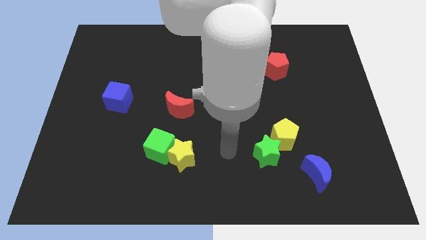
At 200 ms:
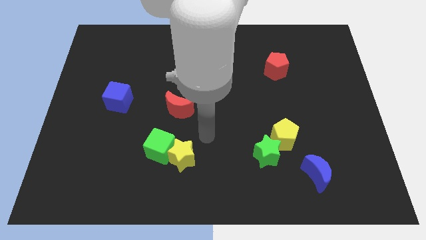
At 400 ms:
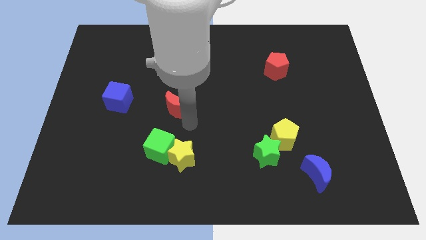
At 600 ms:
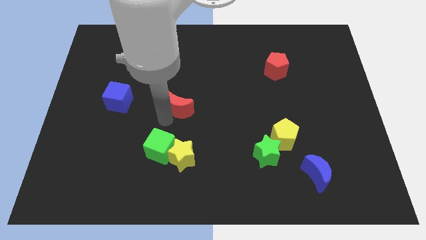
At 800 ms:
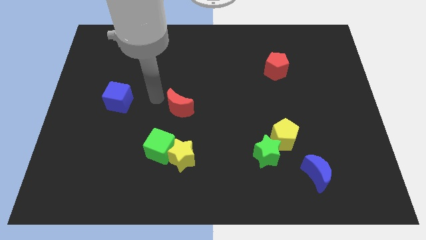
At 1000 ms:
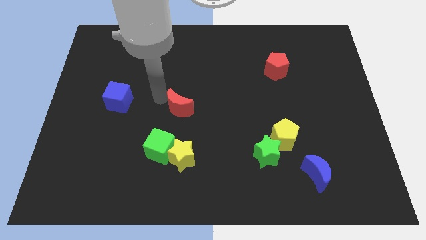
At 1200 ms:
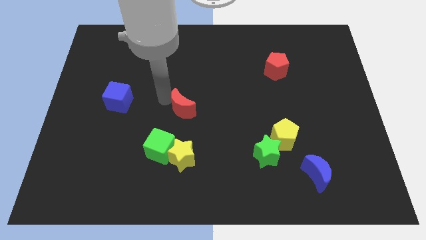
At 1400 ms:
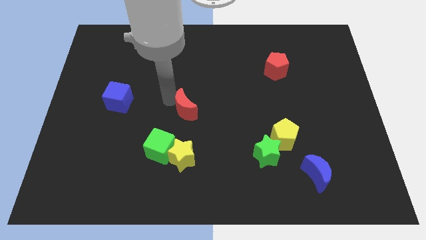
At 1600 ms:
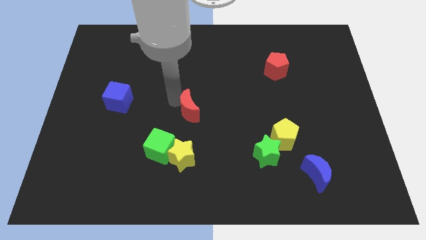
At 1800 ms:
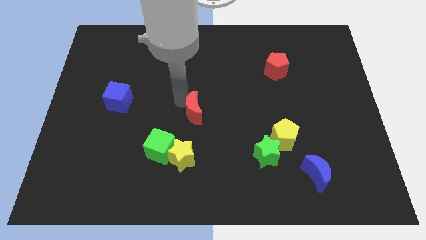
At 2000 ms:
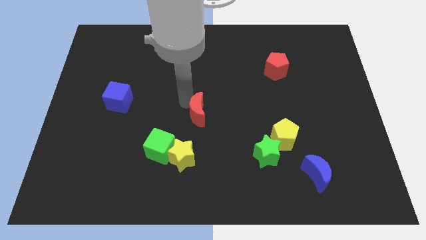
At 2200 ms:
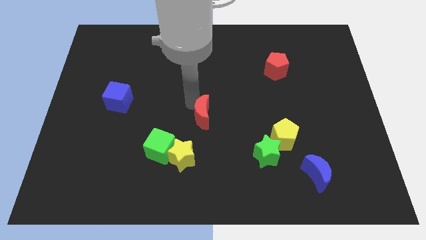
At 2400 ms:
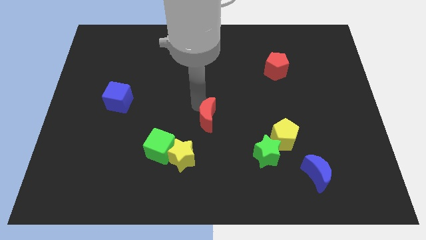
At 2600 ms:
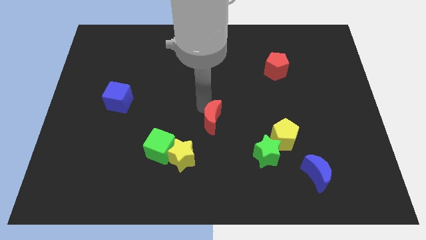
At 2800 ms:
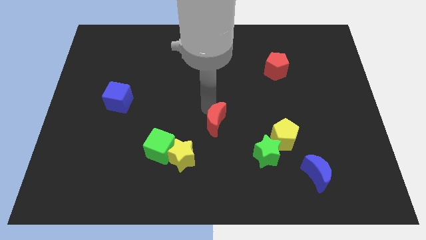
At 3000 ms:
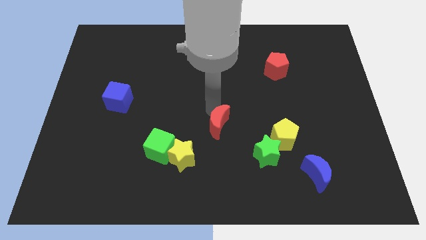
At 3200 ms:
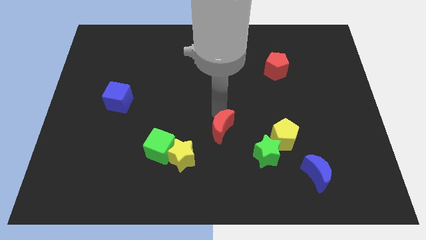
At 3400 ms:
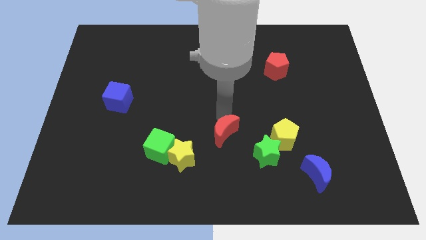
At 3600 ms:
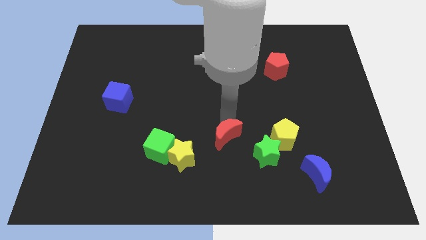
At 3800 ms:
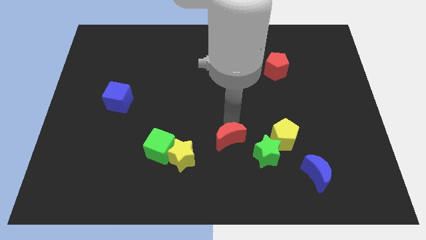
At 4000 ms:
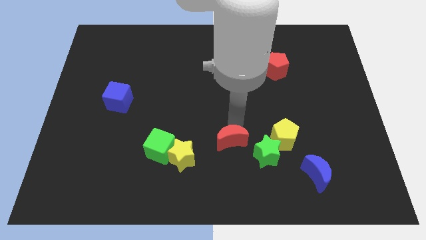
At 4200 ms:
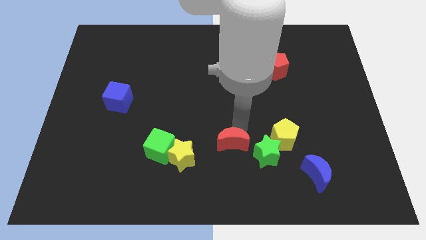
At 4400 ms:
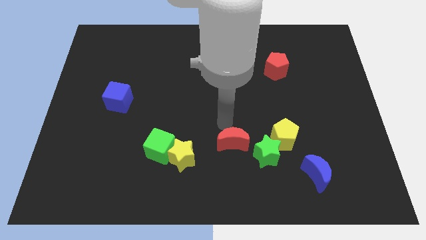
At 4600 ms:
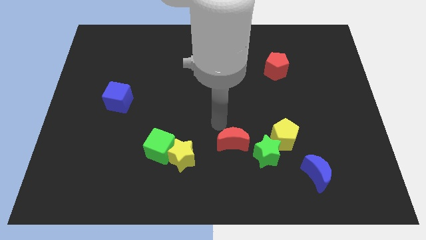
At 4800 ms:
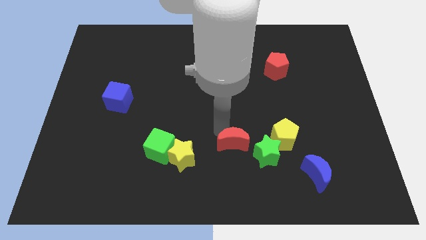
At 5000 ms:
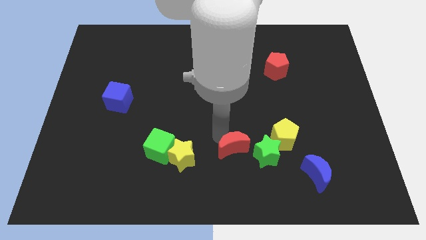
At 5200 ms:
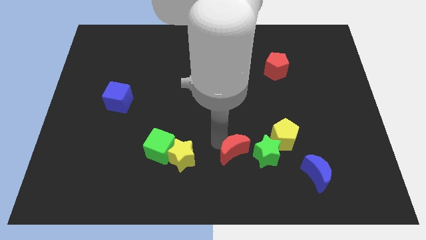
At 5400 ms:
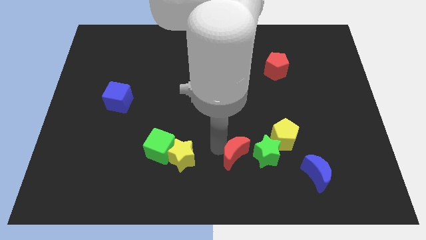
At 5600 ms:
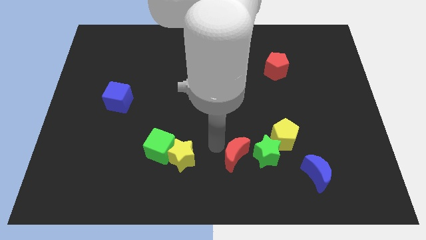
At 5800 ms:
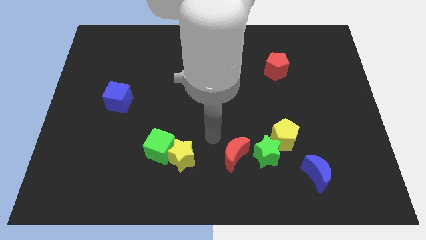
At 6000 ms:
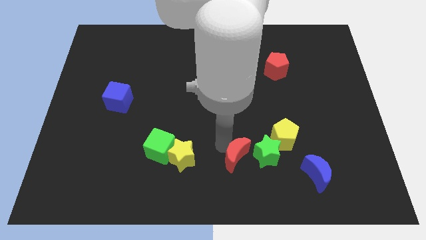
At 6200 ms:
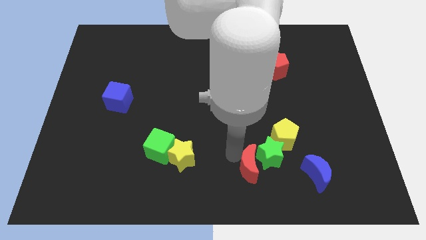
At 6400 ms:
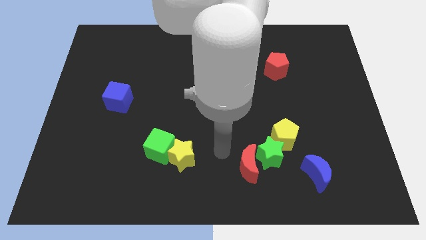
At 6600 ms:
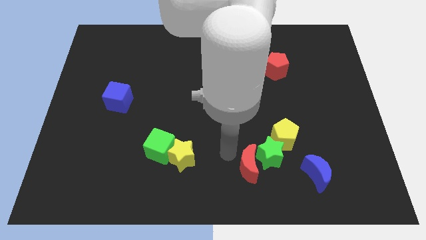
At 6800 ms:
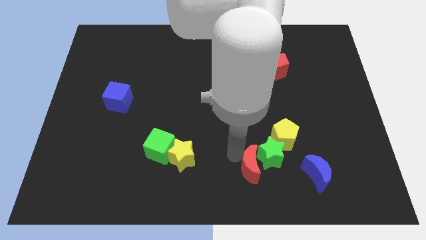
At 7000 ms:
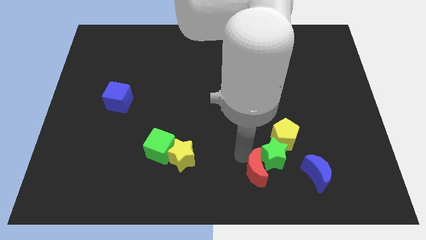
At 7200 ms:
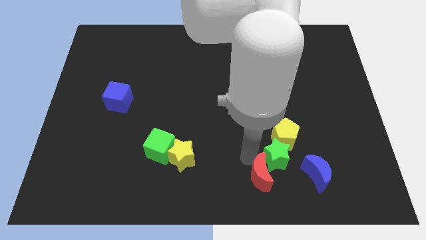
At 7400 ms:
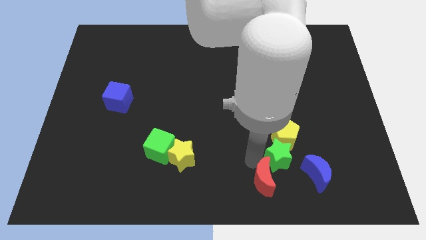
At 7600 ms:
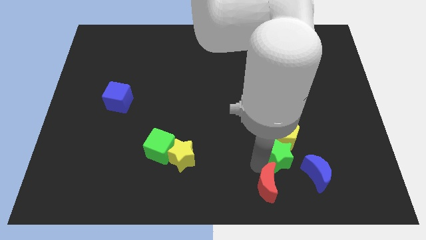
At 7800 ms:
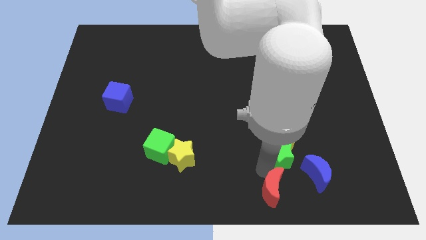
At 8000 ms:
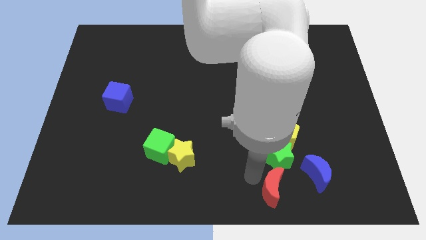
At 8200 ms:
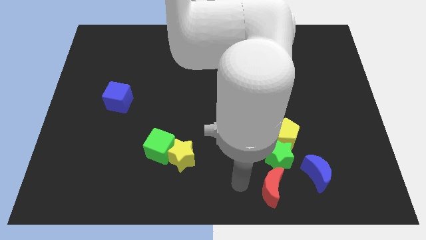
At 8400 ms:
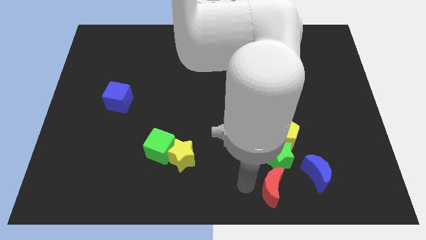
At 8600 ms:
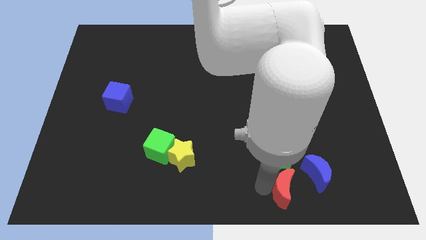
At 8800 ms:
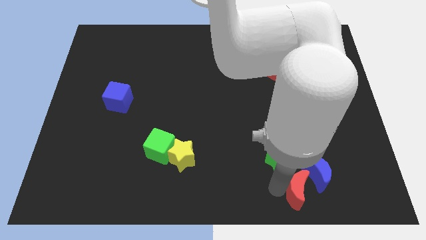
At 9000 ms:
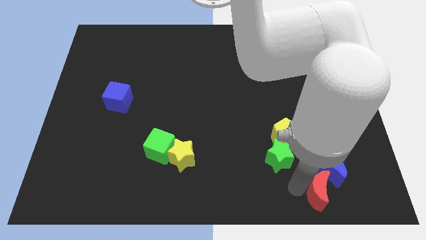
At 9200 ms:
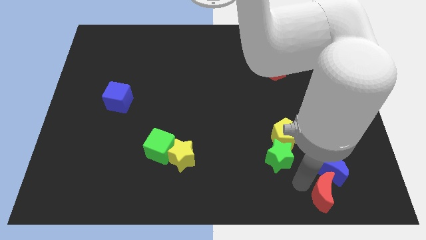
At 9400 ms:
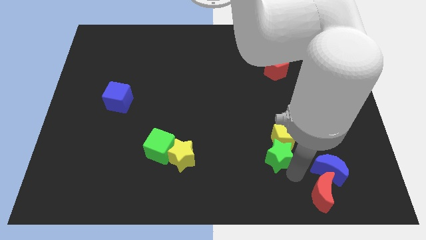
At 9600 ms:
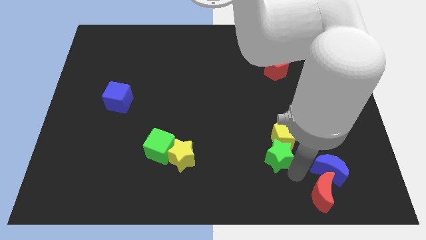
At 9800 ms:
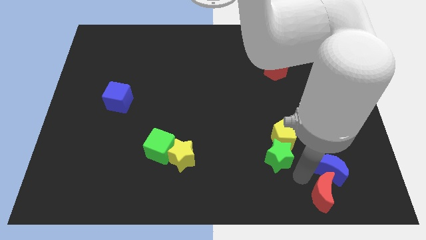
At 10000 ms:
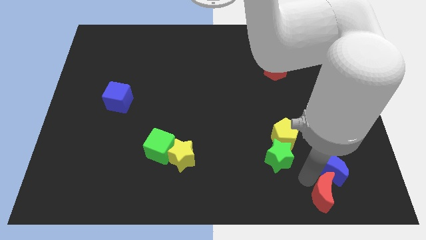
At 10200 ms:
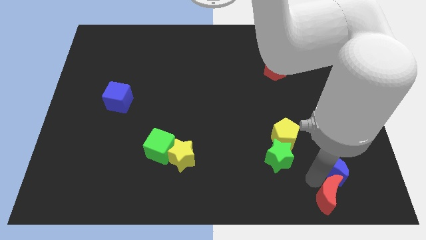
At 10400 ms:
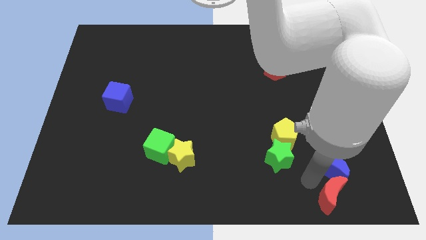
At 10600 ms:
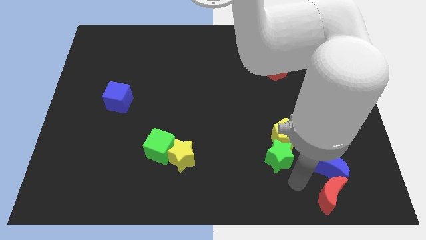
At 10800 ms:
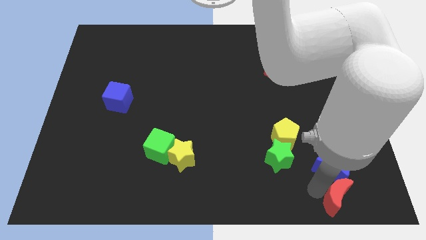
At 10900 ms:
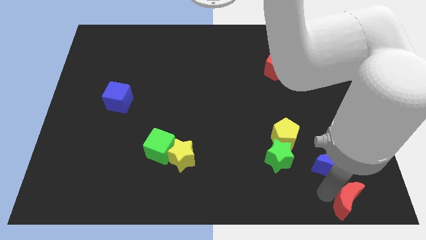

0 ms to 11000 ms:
move the red moon to the bottom right of the board

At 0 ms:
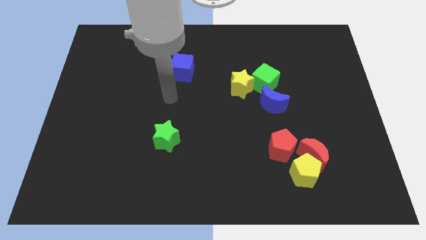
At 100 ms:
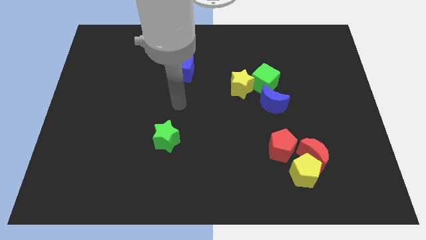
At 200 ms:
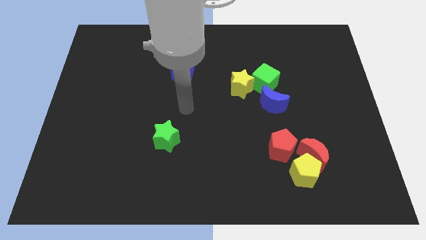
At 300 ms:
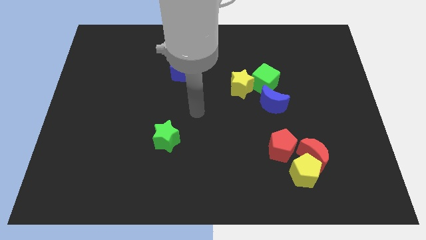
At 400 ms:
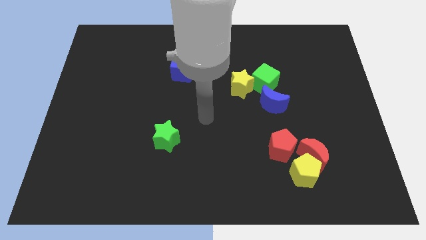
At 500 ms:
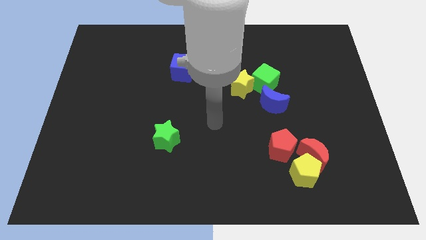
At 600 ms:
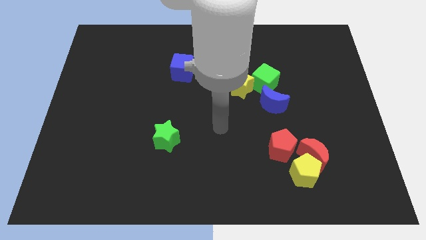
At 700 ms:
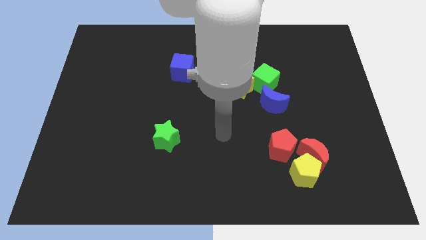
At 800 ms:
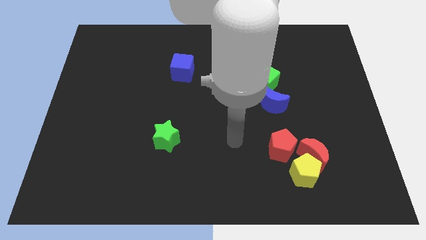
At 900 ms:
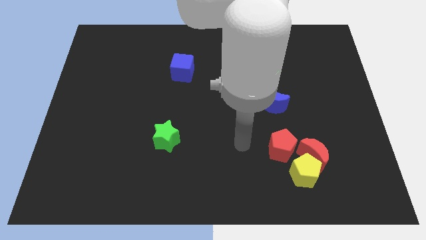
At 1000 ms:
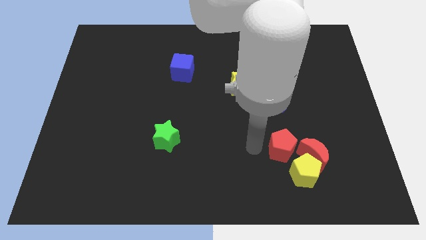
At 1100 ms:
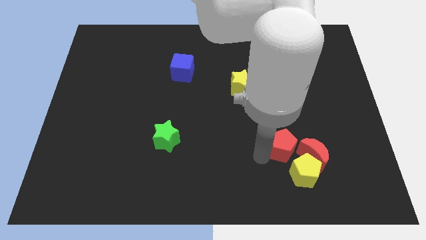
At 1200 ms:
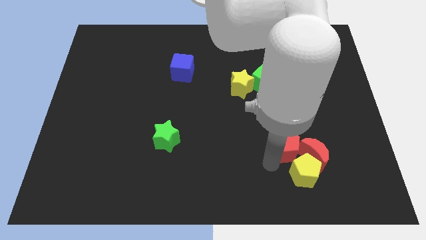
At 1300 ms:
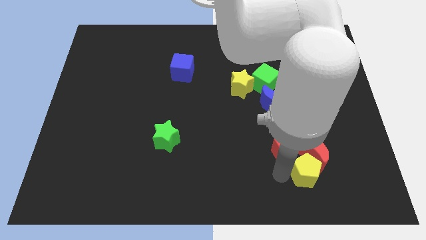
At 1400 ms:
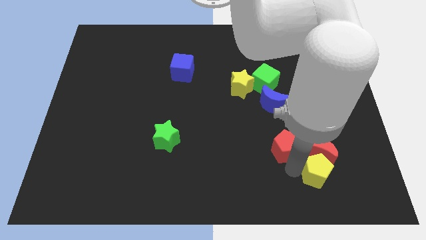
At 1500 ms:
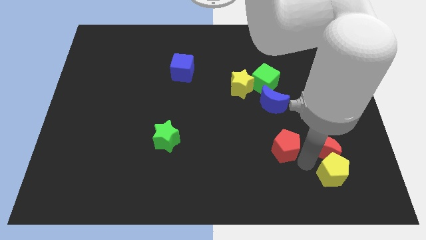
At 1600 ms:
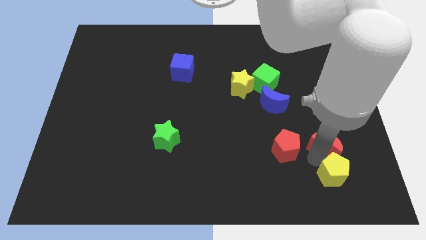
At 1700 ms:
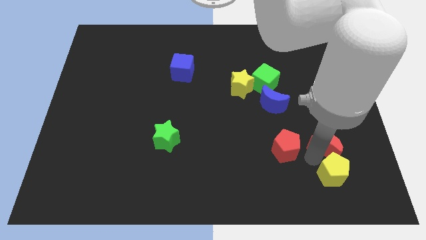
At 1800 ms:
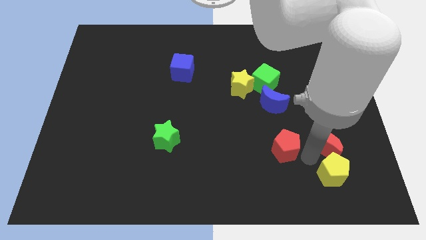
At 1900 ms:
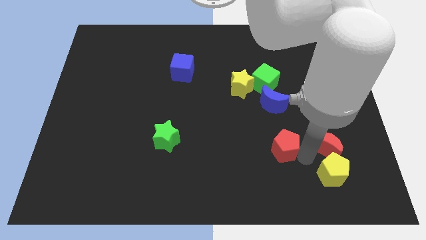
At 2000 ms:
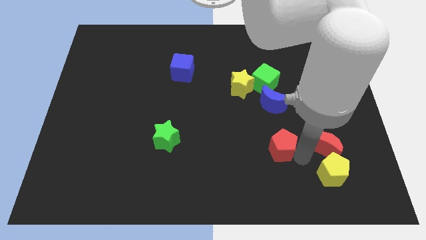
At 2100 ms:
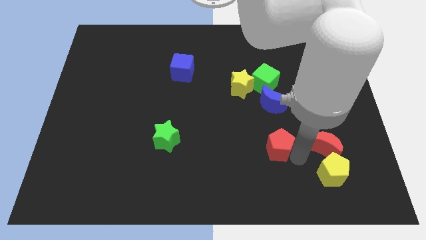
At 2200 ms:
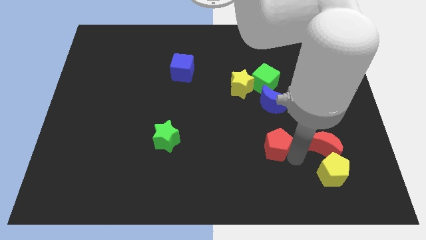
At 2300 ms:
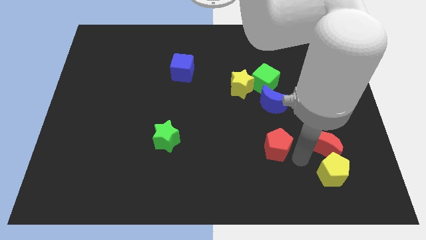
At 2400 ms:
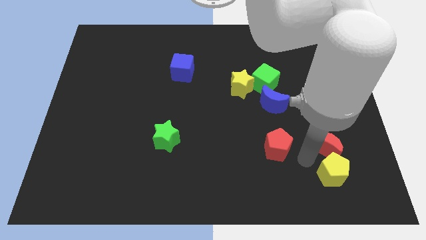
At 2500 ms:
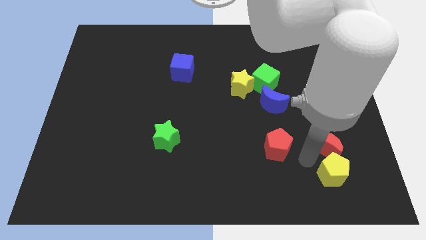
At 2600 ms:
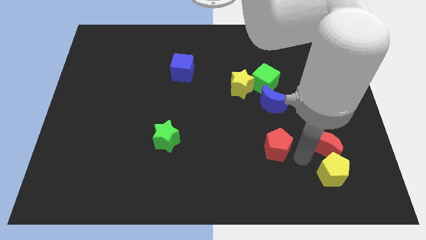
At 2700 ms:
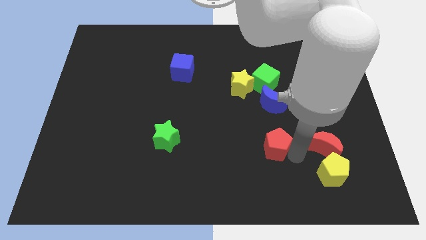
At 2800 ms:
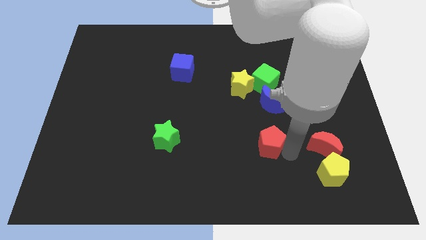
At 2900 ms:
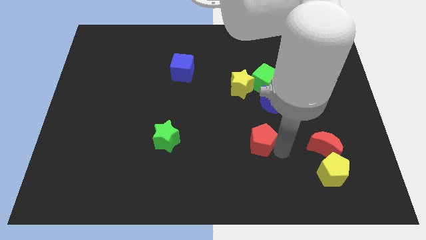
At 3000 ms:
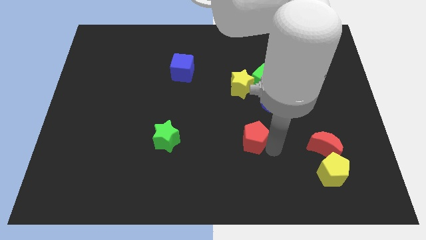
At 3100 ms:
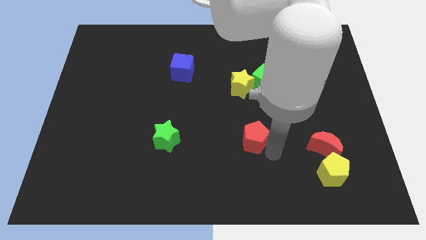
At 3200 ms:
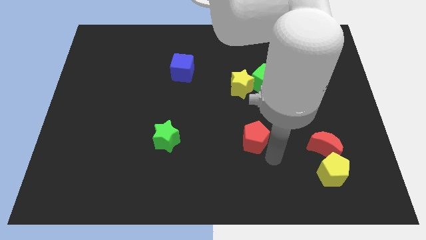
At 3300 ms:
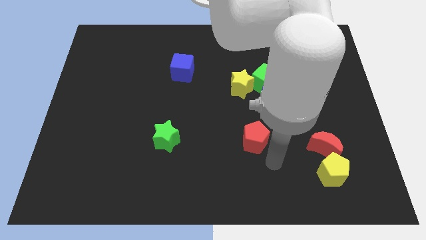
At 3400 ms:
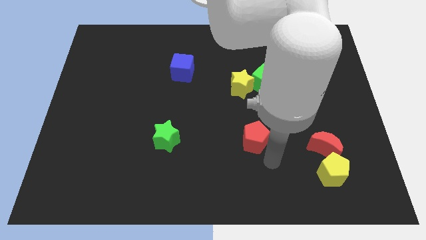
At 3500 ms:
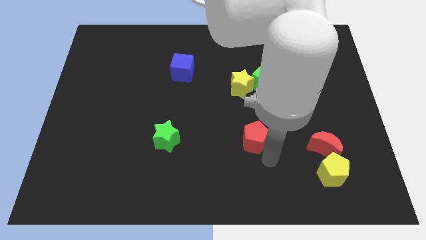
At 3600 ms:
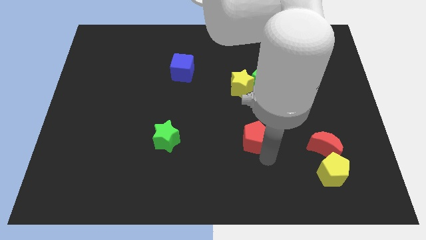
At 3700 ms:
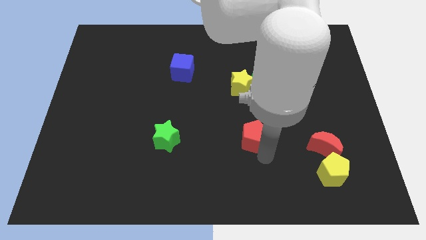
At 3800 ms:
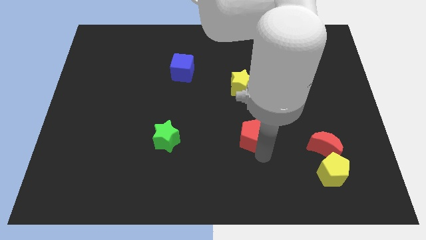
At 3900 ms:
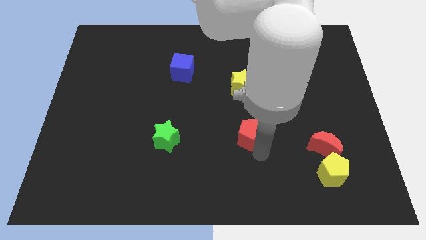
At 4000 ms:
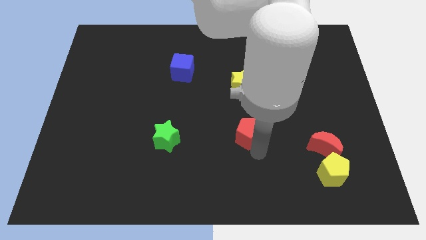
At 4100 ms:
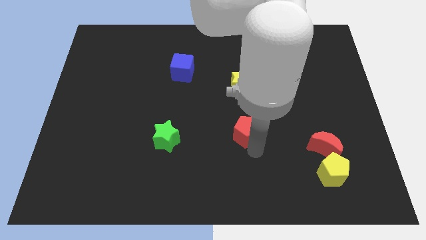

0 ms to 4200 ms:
put the red pentagon to the middle of the board
